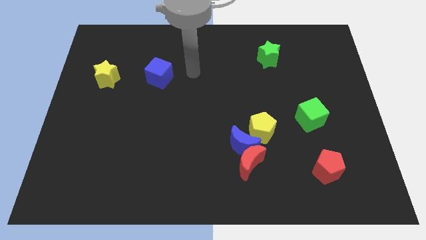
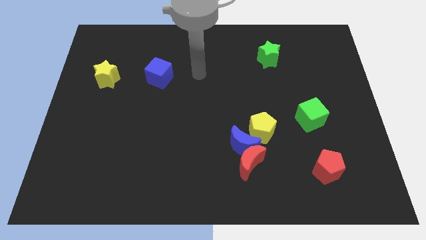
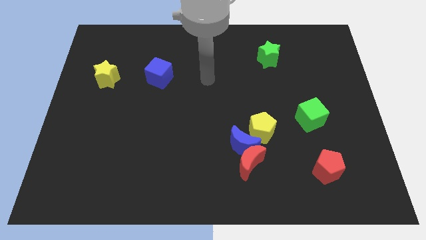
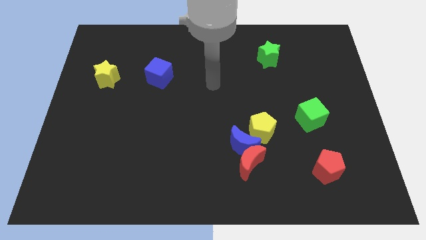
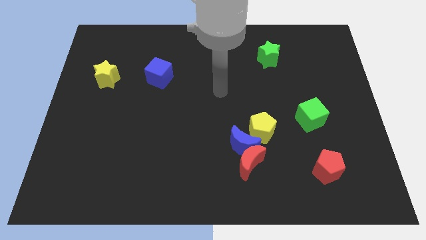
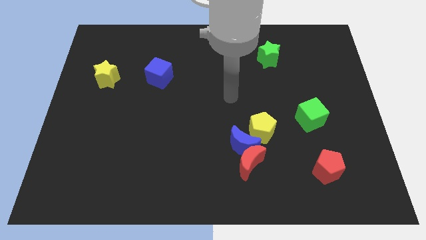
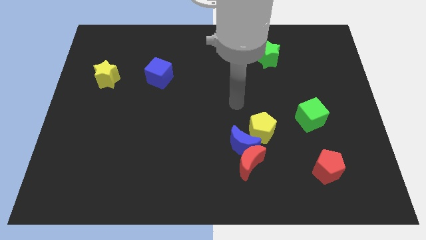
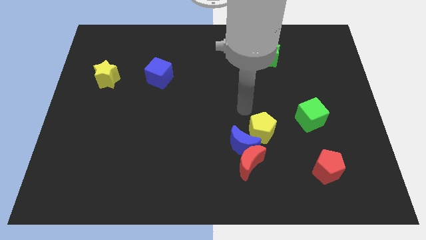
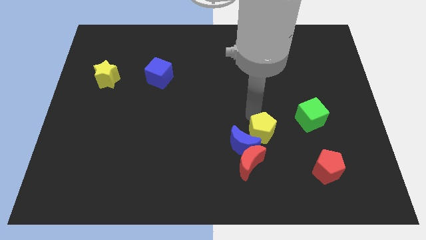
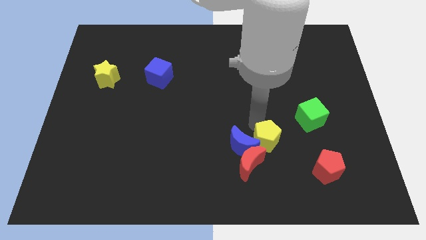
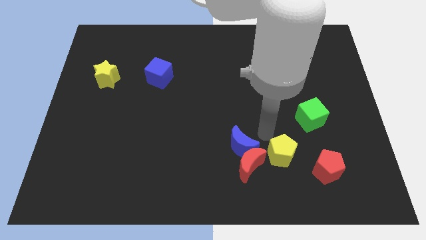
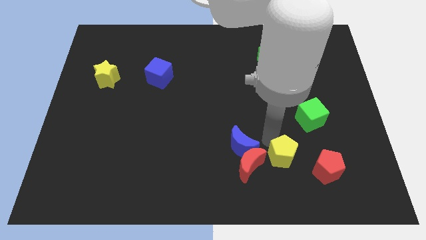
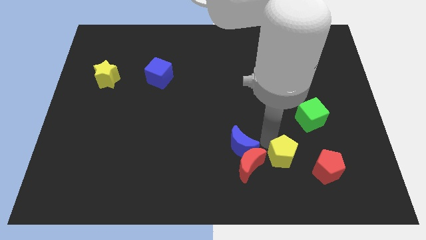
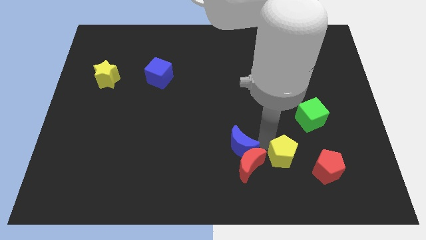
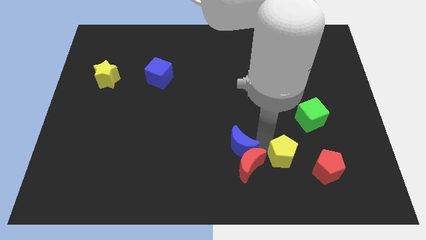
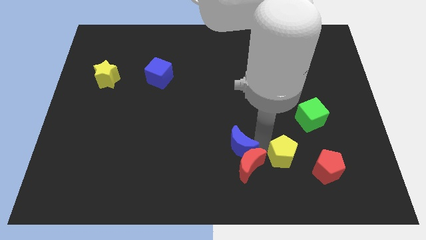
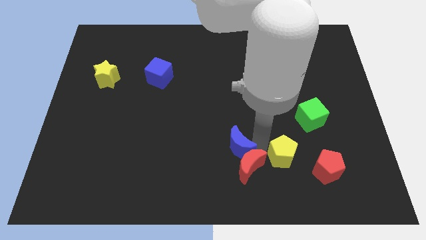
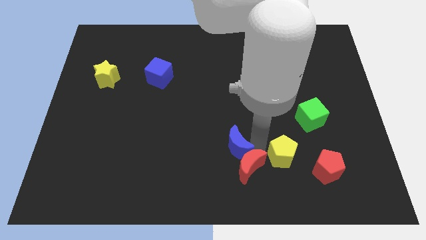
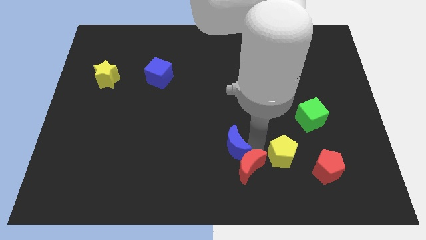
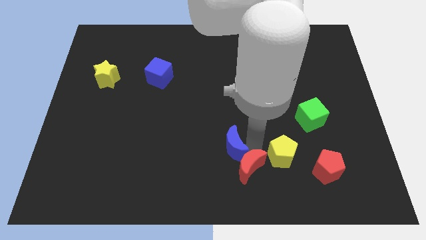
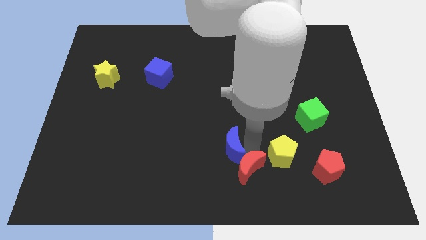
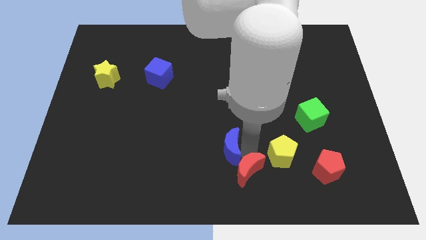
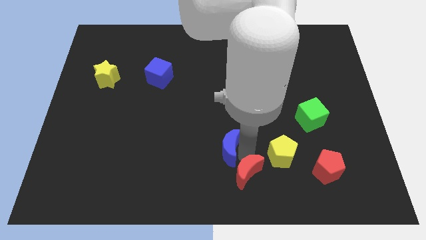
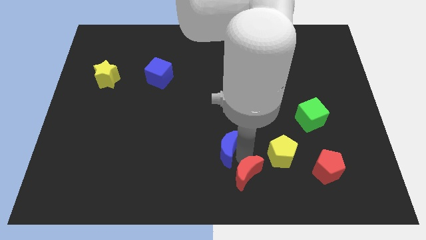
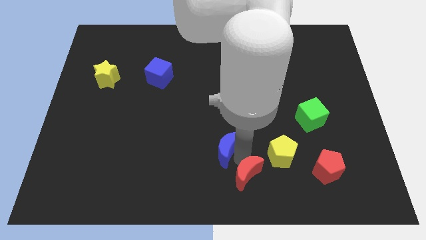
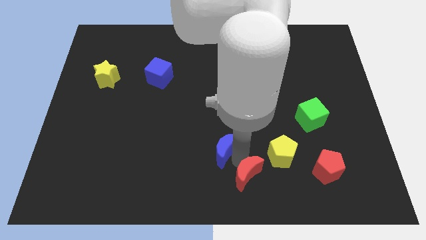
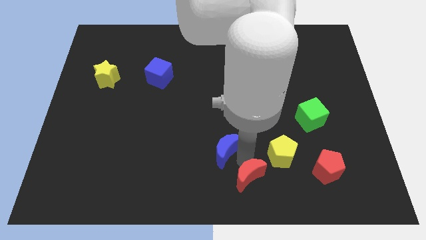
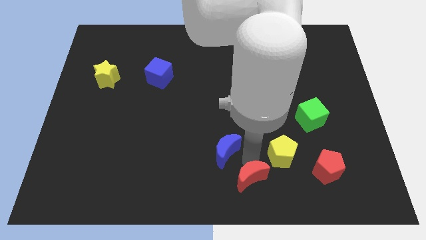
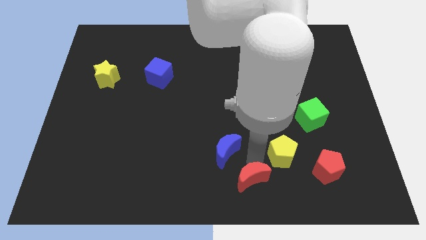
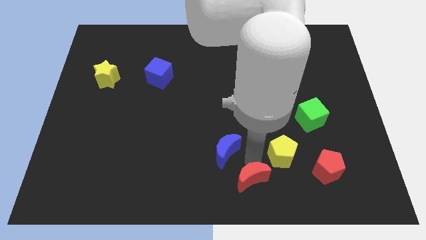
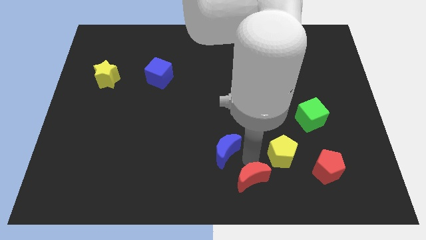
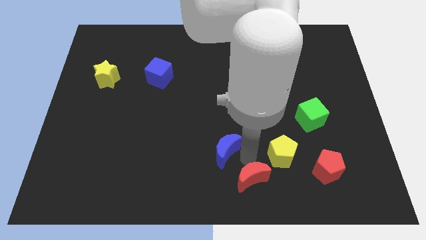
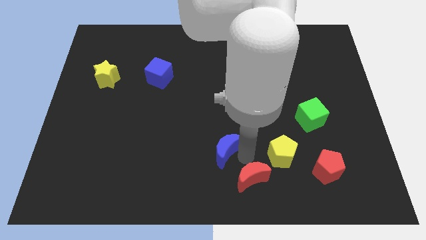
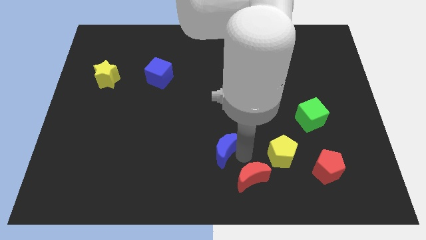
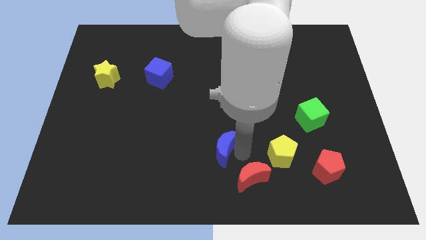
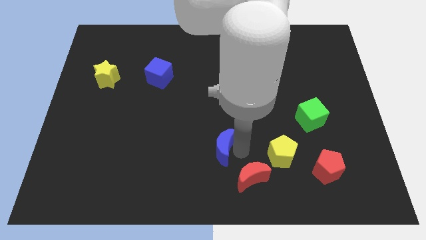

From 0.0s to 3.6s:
move the blue moon away from the red moon and yellow pentagon

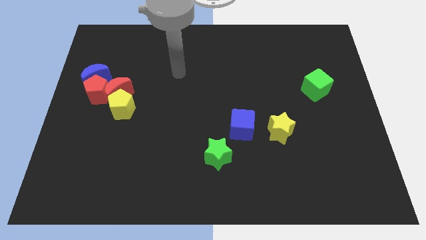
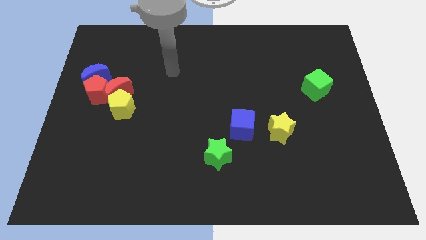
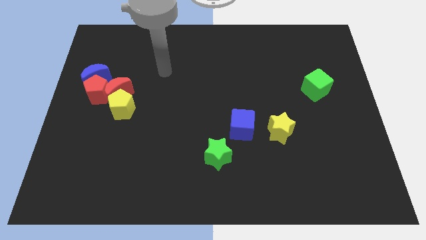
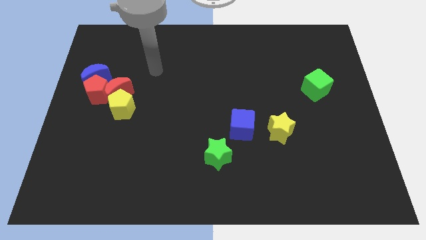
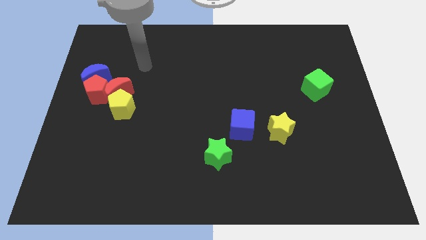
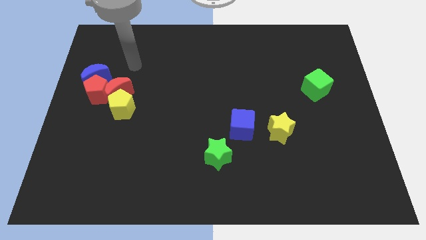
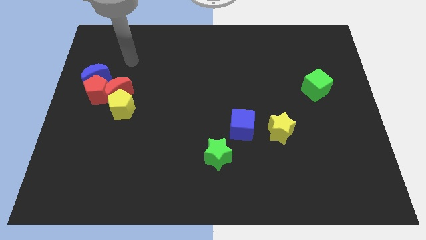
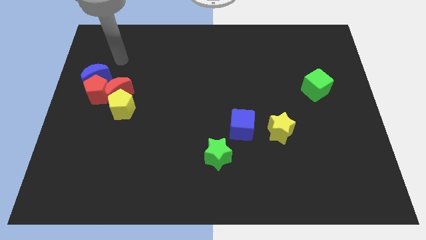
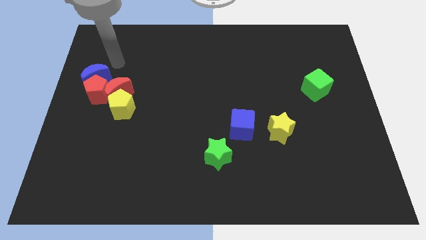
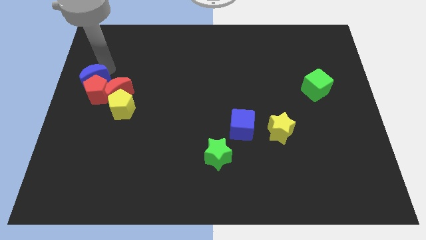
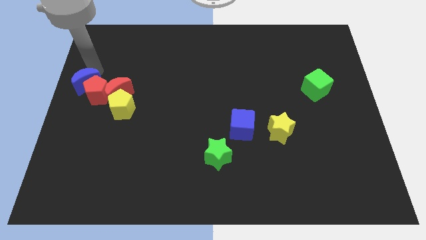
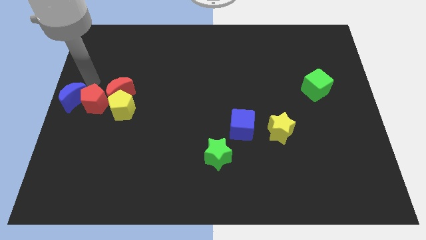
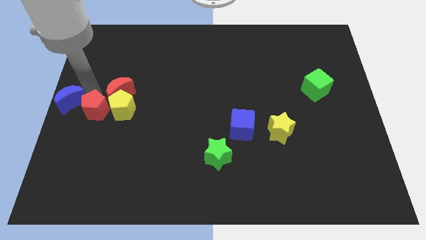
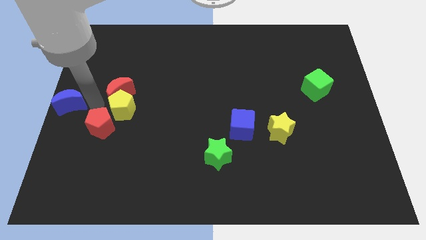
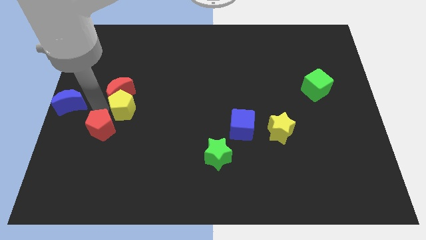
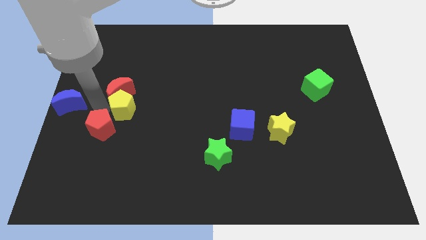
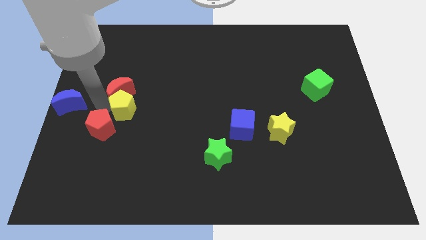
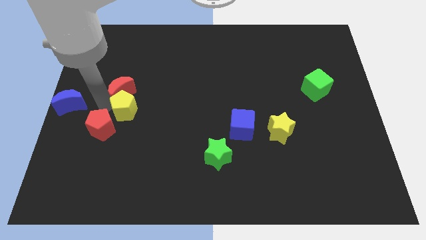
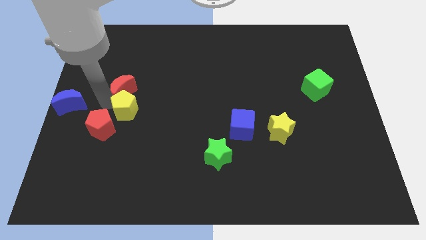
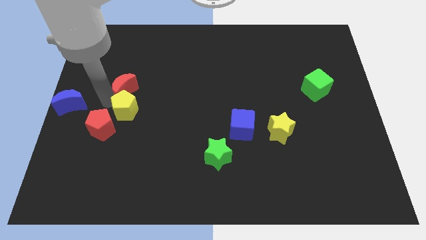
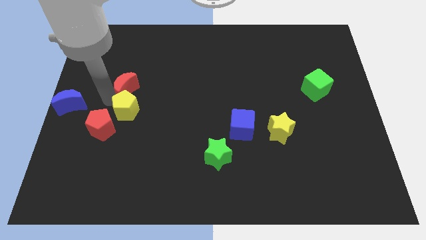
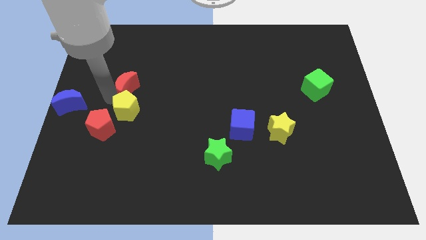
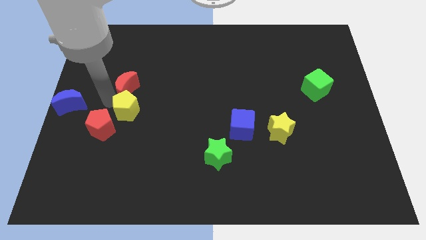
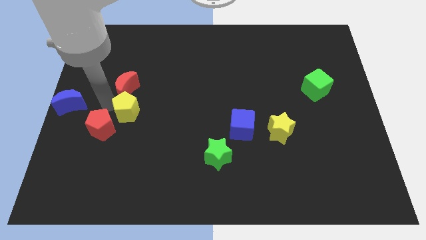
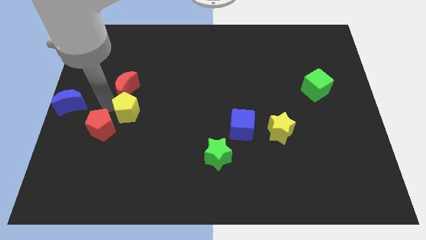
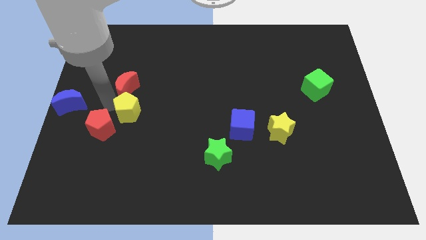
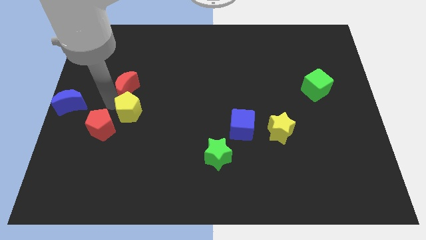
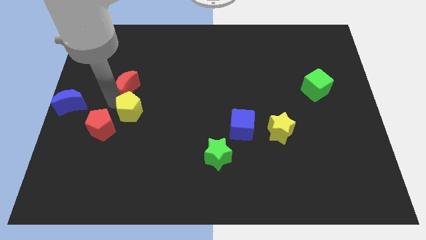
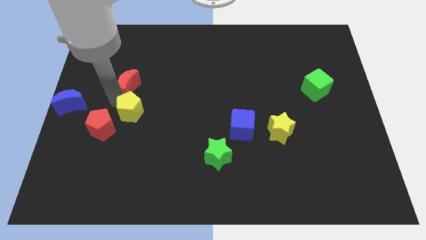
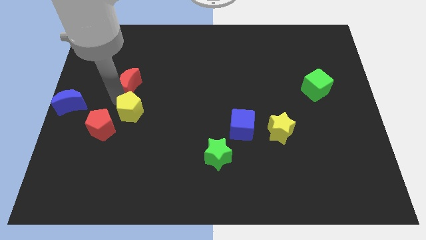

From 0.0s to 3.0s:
pull the red moon apart from the yellow pentagon, red pentagon, and blue moon

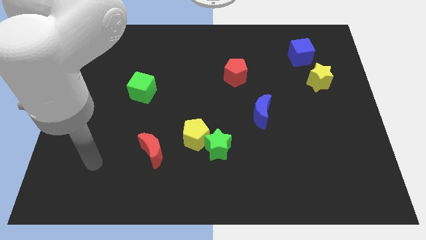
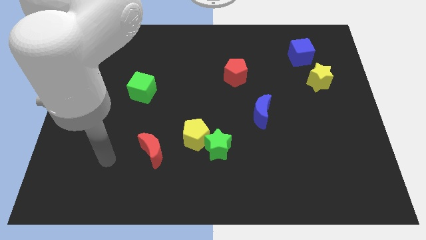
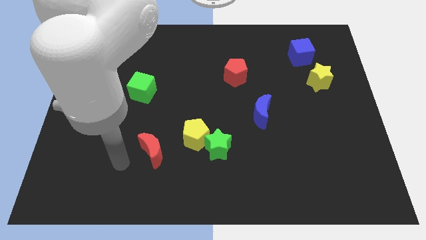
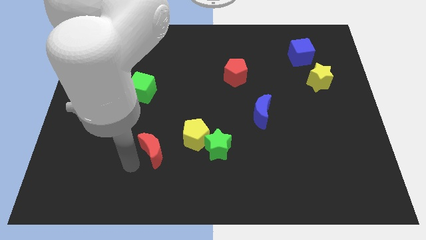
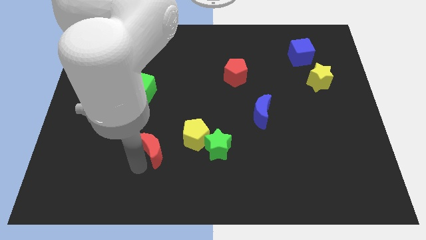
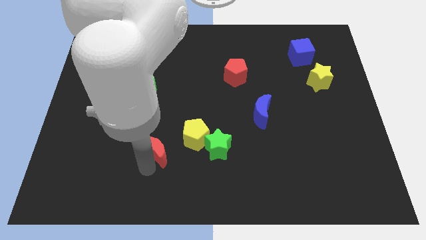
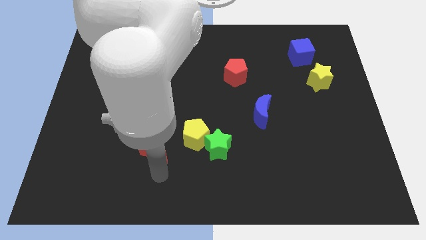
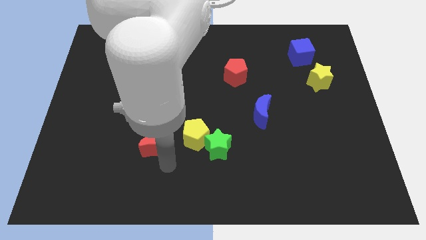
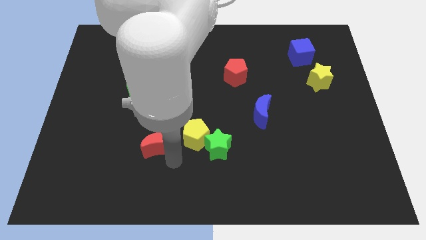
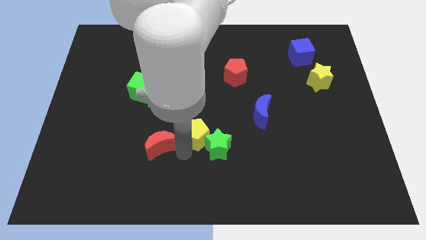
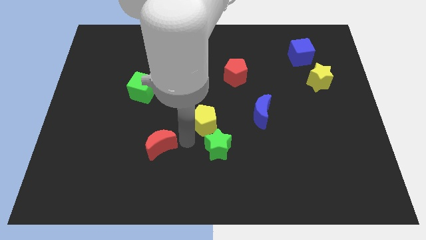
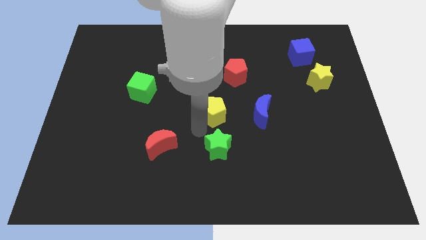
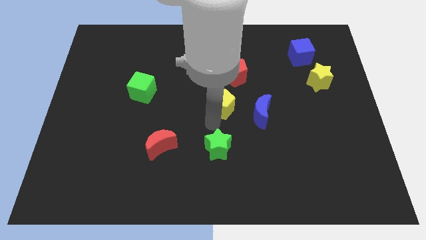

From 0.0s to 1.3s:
separate the green star from the yellow pentagon

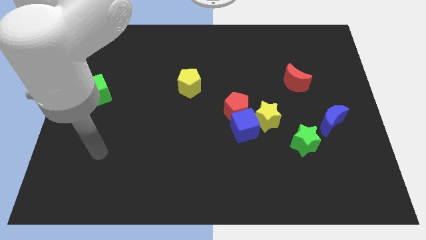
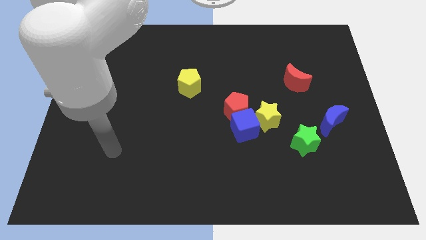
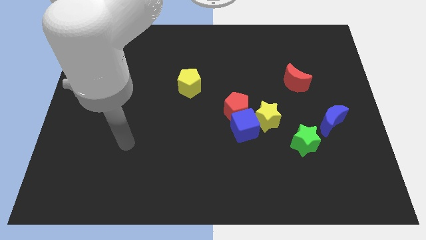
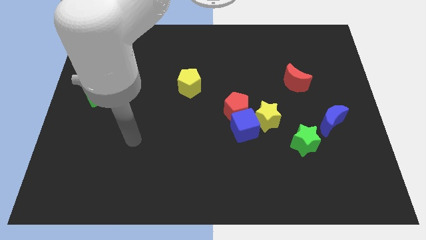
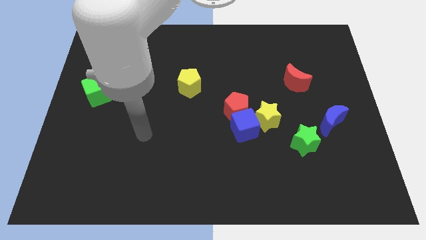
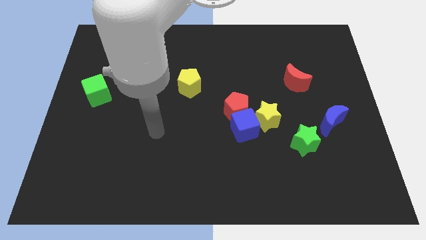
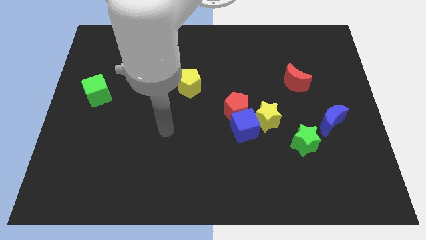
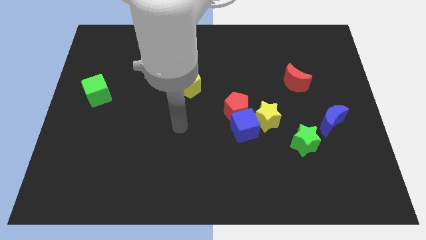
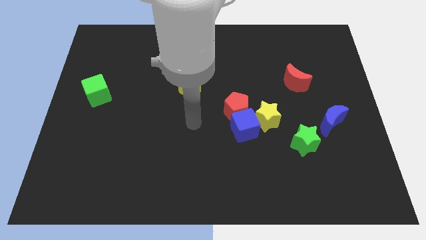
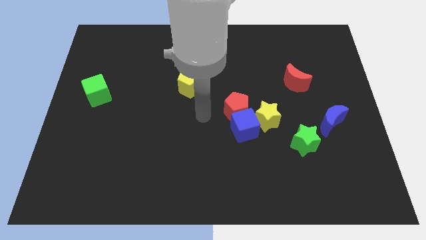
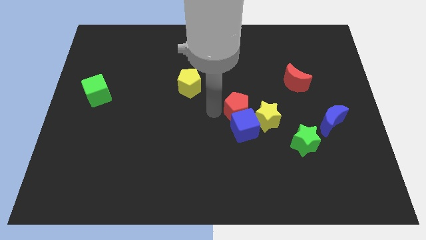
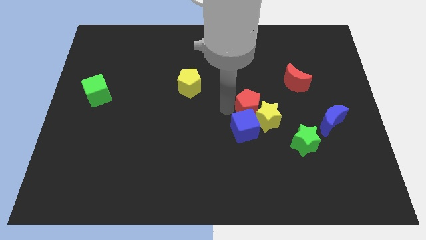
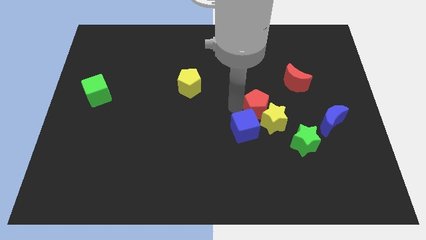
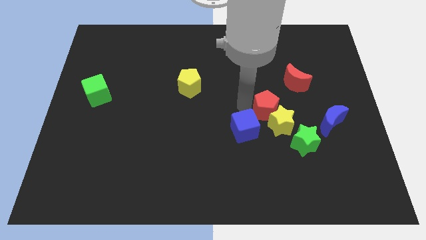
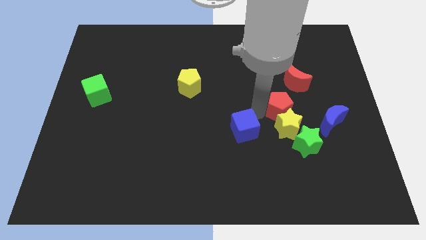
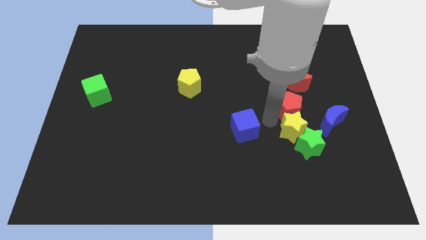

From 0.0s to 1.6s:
separate the blue cube from the red pentagon and yellow star
